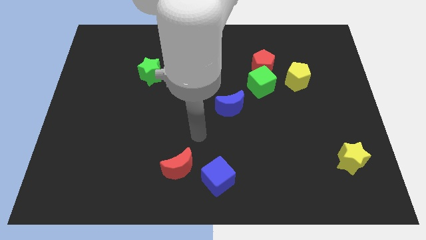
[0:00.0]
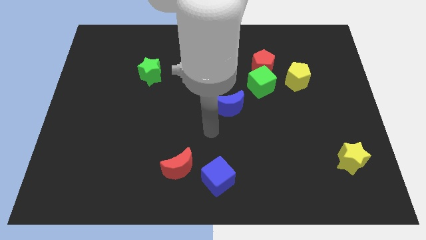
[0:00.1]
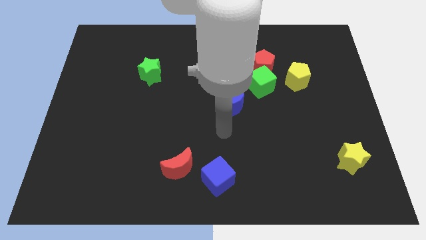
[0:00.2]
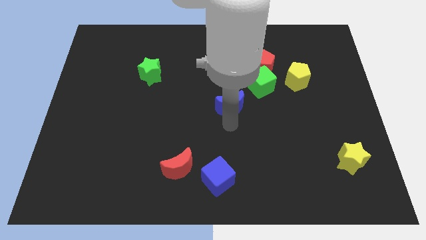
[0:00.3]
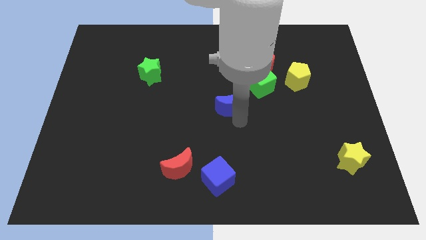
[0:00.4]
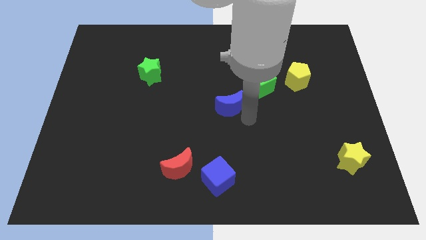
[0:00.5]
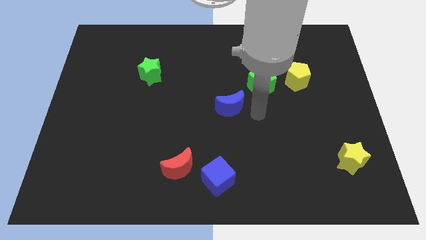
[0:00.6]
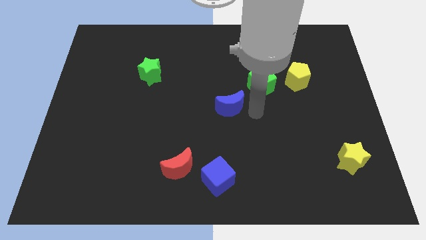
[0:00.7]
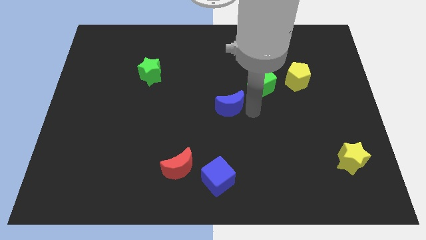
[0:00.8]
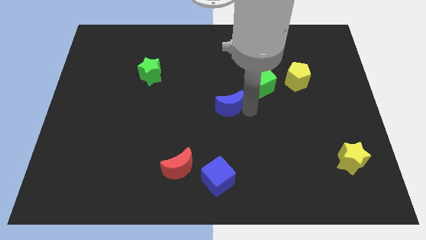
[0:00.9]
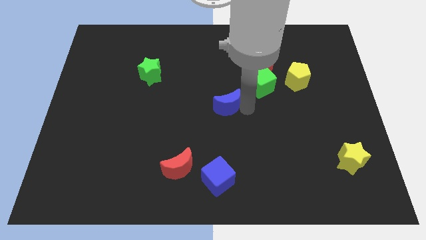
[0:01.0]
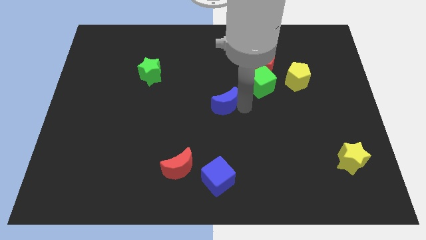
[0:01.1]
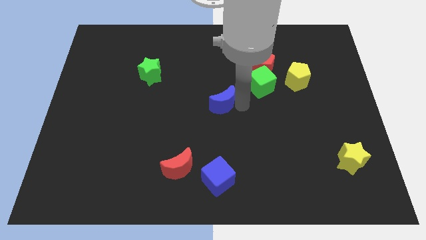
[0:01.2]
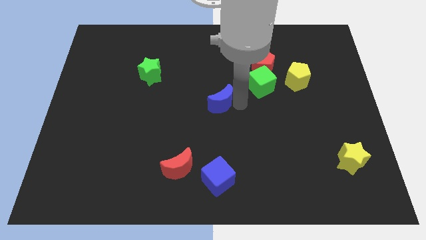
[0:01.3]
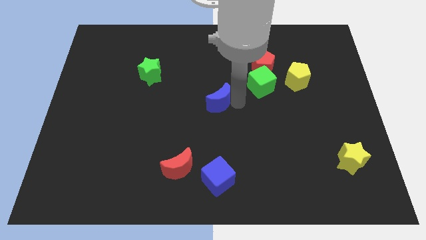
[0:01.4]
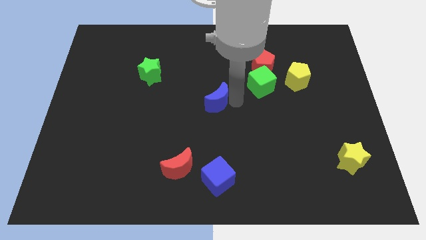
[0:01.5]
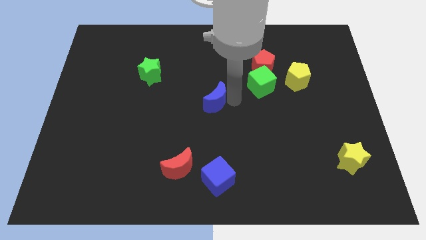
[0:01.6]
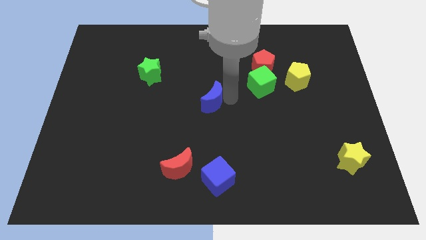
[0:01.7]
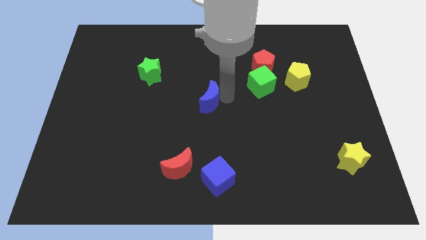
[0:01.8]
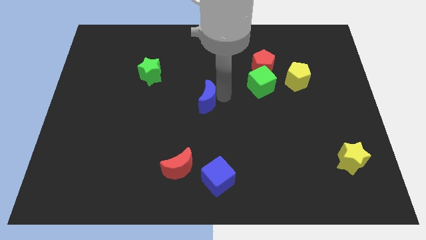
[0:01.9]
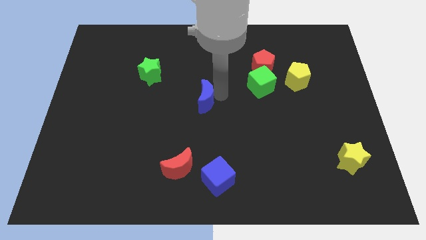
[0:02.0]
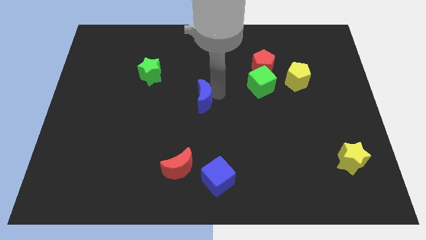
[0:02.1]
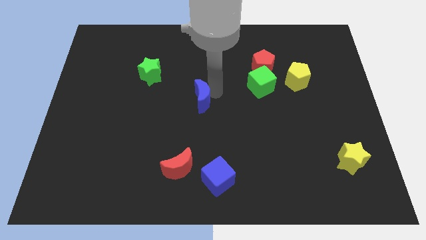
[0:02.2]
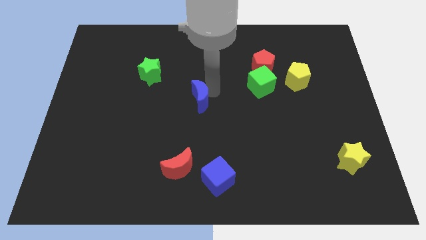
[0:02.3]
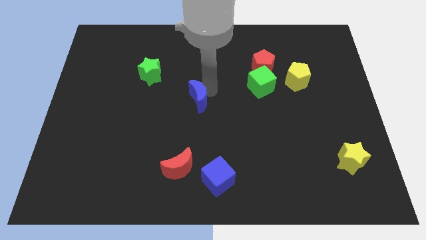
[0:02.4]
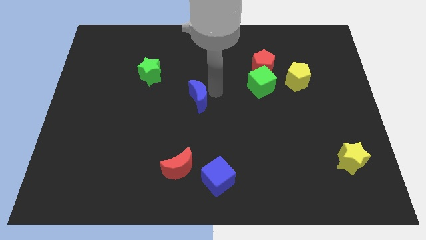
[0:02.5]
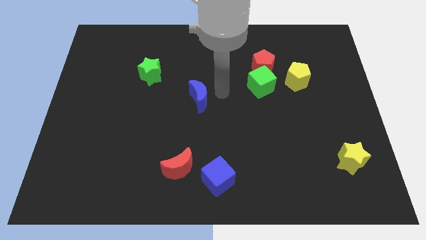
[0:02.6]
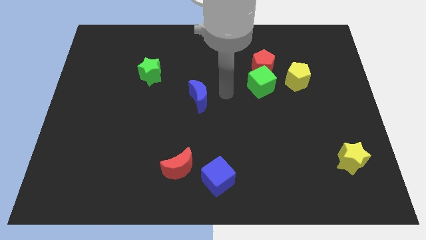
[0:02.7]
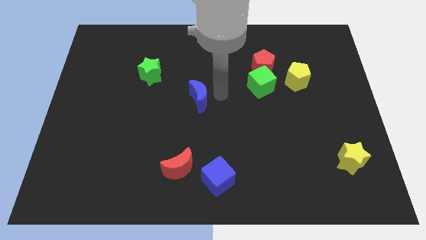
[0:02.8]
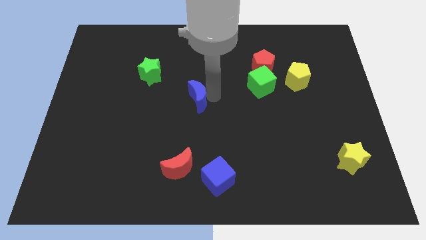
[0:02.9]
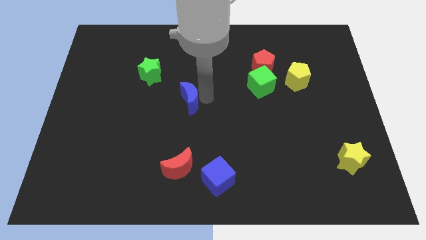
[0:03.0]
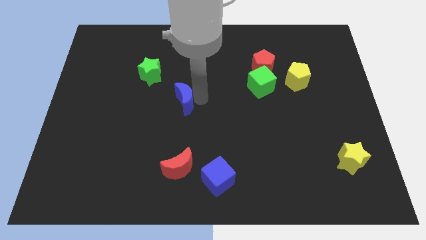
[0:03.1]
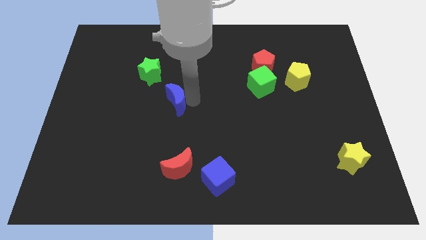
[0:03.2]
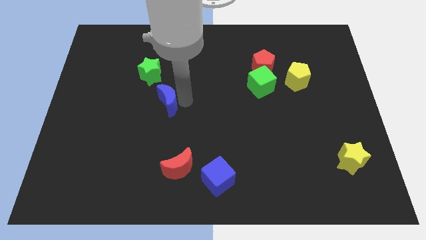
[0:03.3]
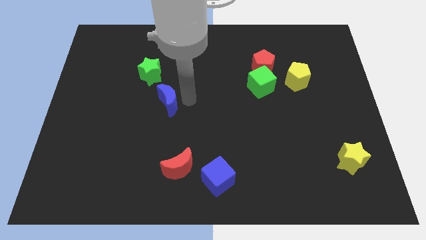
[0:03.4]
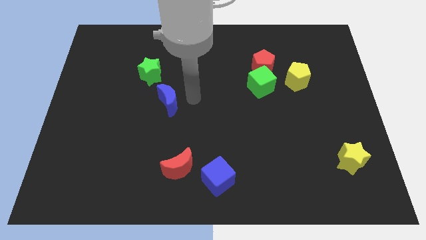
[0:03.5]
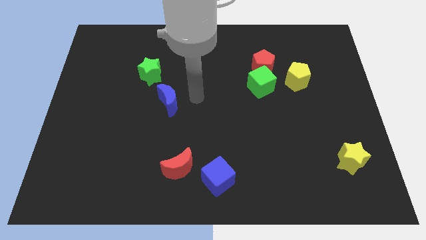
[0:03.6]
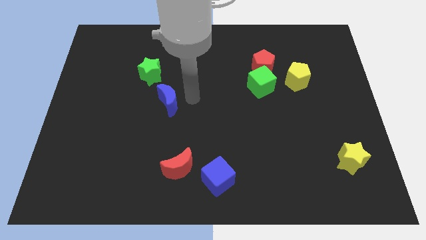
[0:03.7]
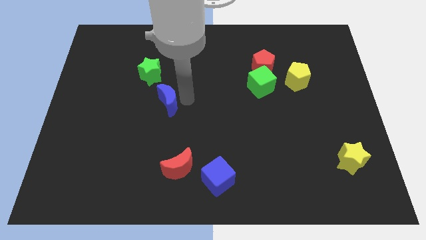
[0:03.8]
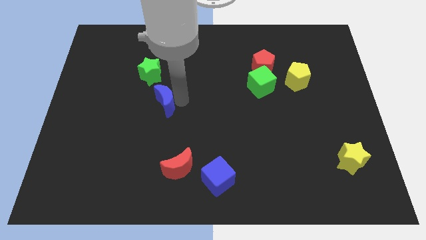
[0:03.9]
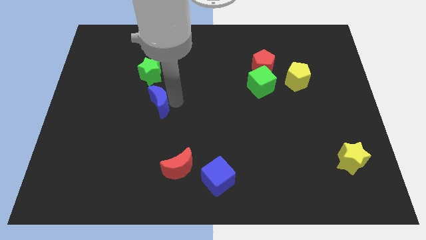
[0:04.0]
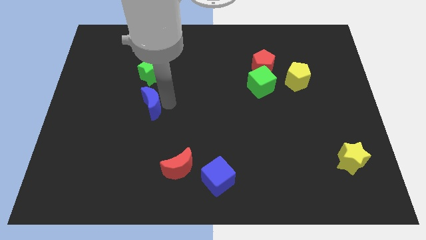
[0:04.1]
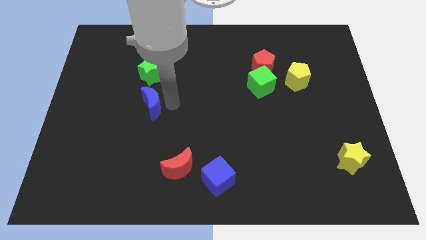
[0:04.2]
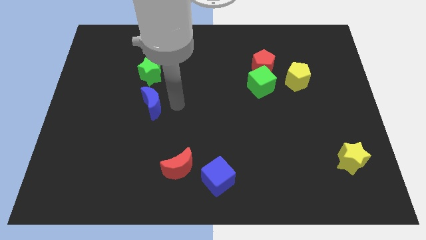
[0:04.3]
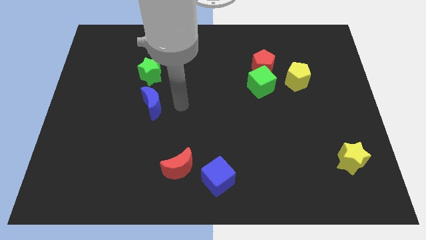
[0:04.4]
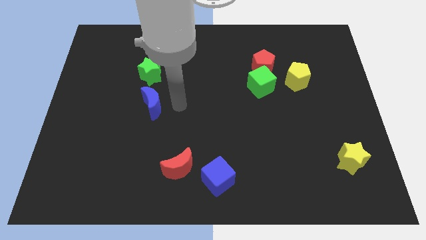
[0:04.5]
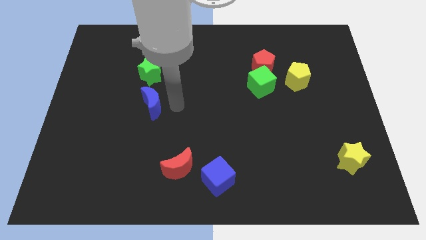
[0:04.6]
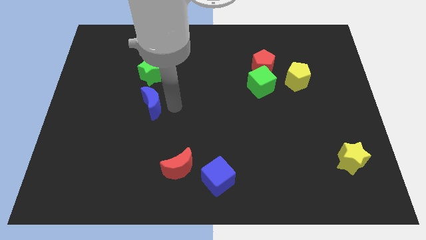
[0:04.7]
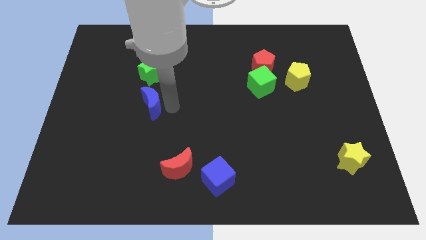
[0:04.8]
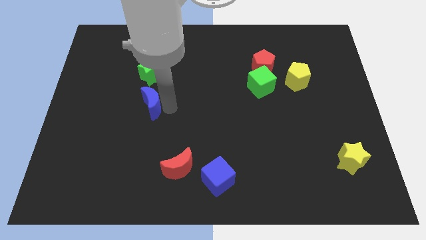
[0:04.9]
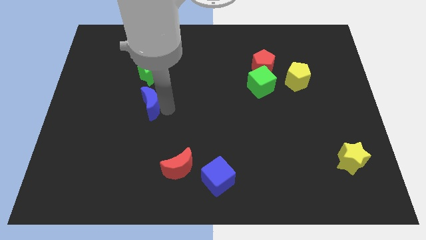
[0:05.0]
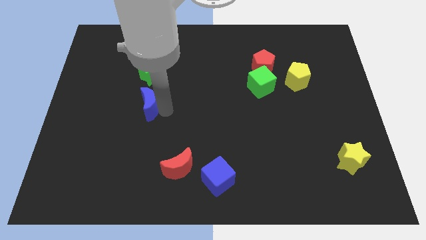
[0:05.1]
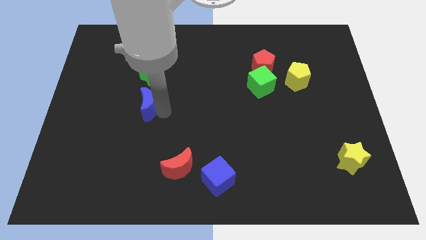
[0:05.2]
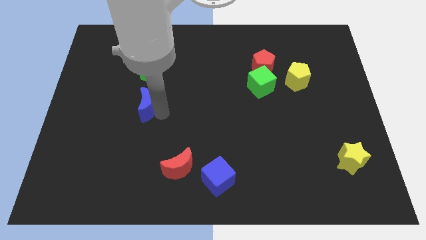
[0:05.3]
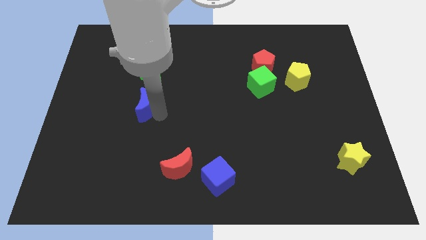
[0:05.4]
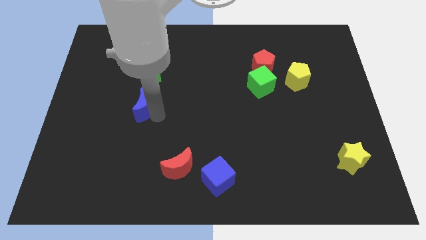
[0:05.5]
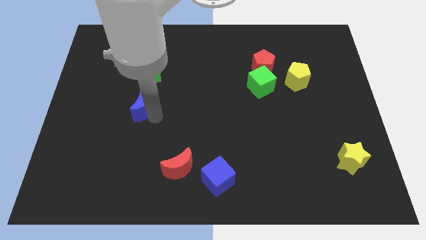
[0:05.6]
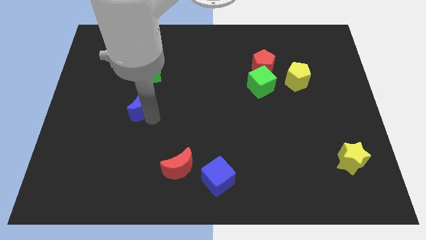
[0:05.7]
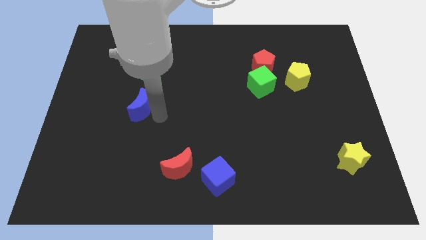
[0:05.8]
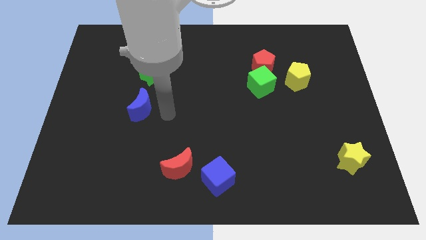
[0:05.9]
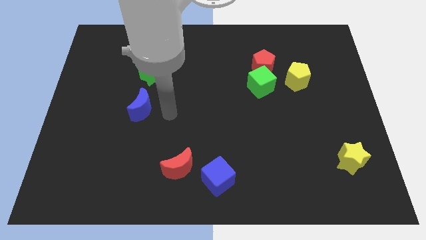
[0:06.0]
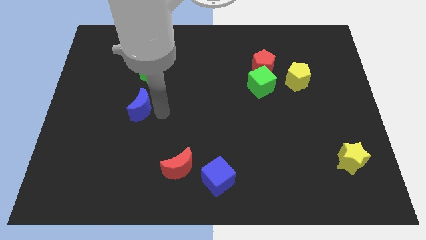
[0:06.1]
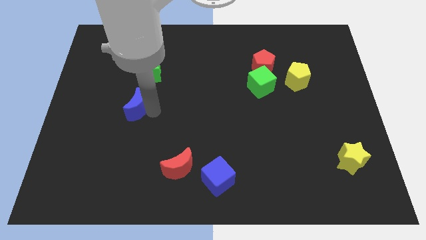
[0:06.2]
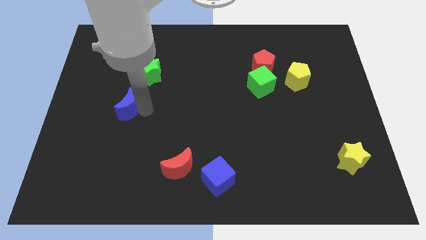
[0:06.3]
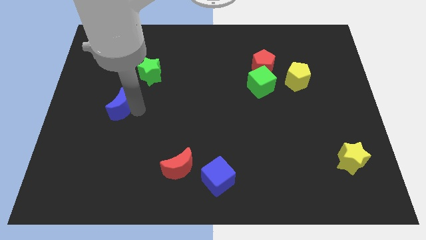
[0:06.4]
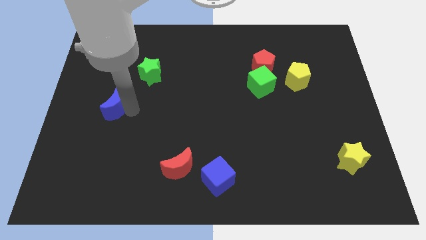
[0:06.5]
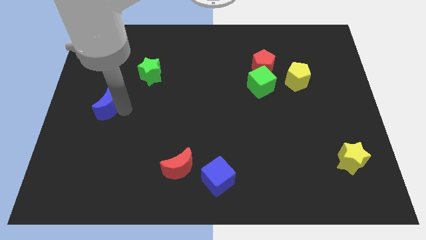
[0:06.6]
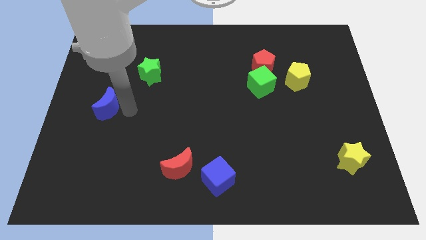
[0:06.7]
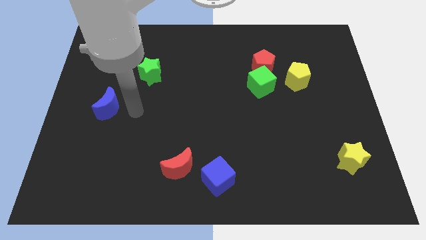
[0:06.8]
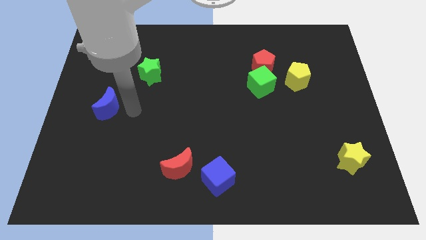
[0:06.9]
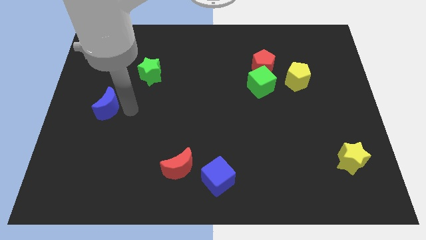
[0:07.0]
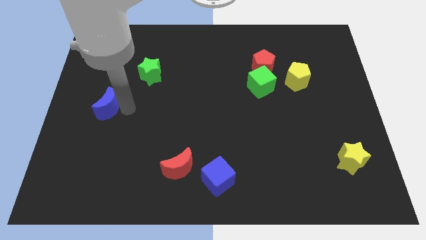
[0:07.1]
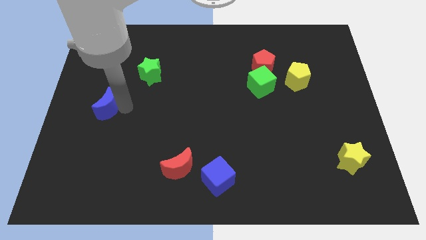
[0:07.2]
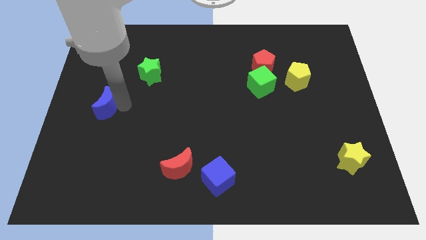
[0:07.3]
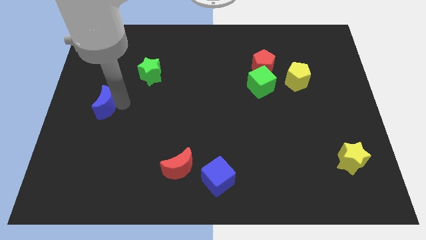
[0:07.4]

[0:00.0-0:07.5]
put the blue moon to the left side
